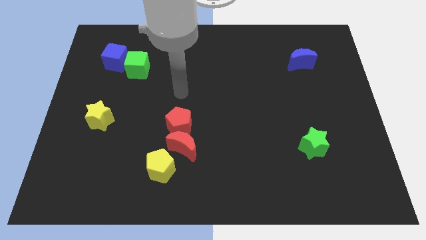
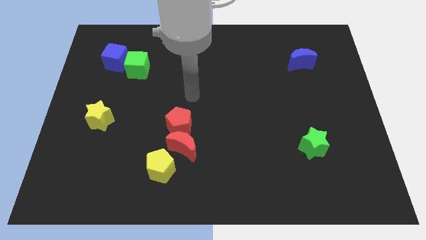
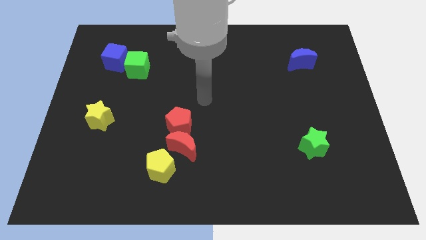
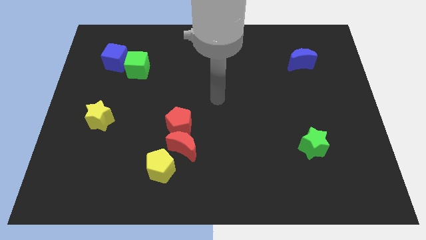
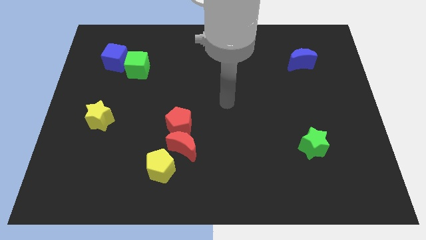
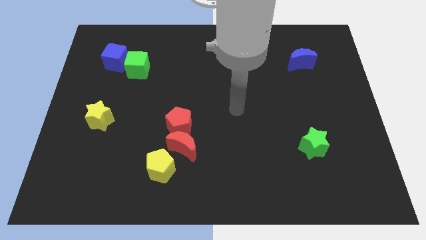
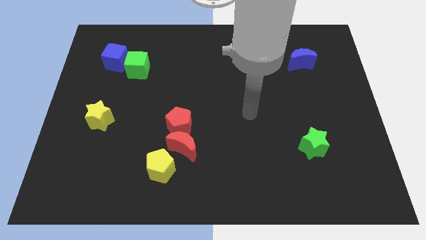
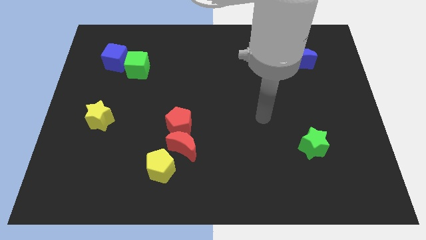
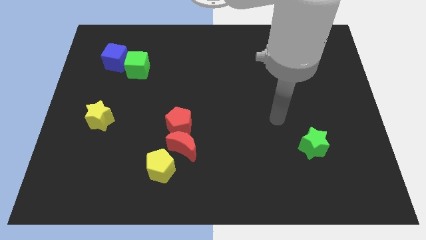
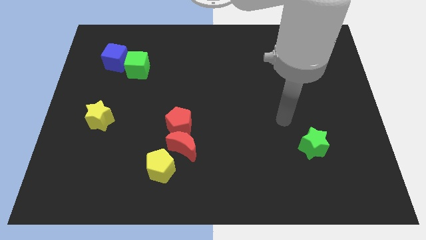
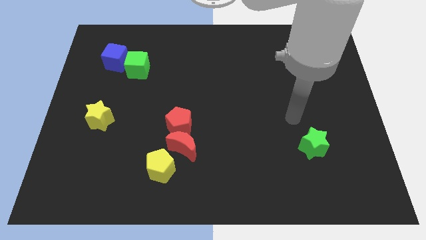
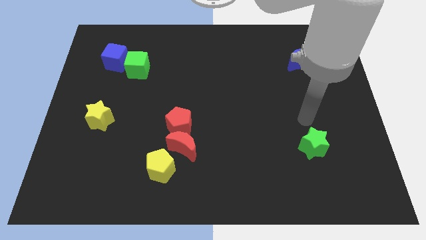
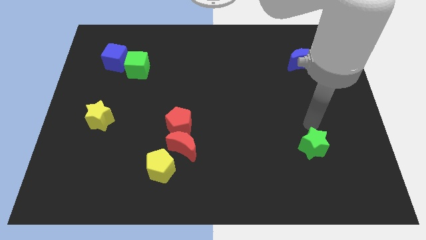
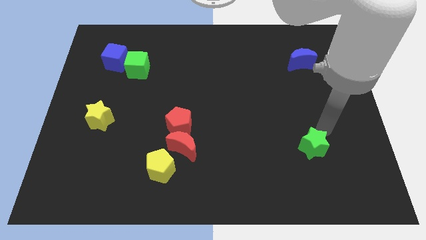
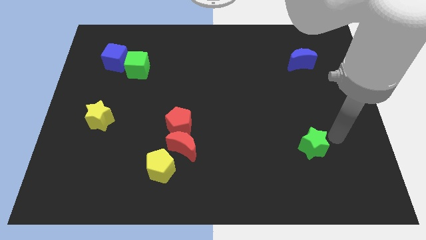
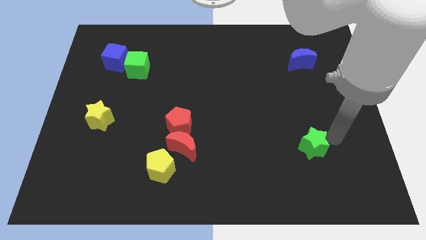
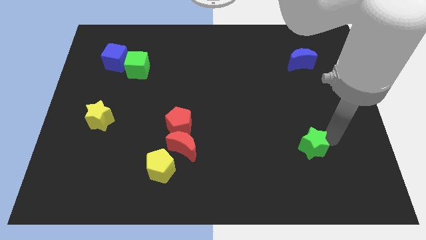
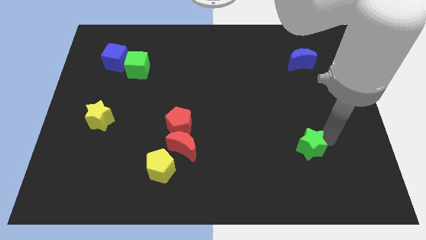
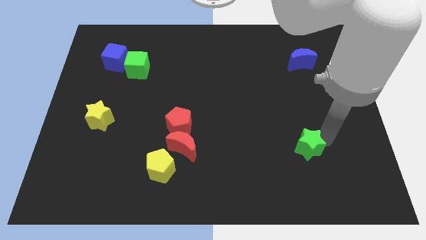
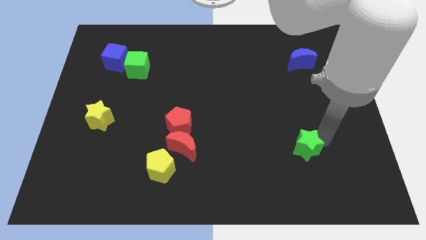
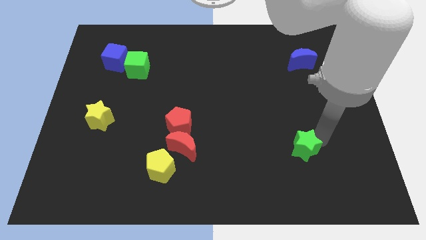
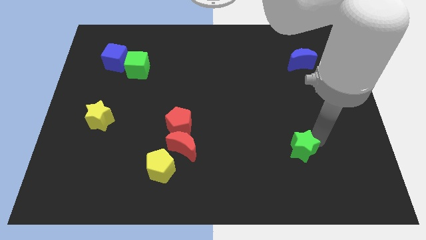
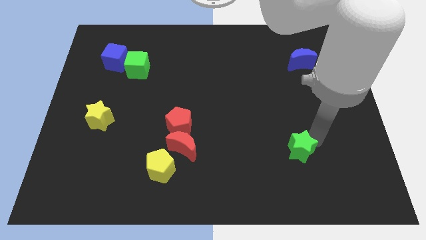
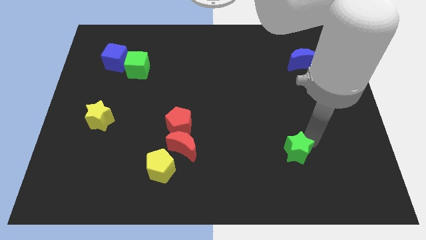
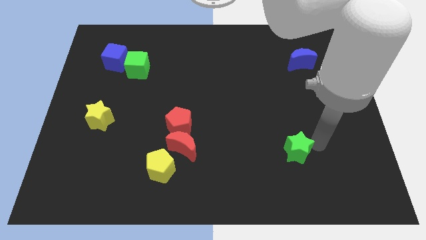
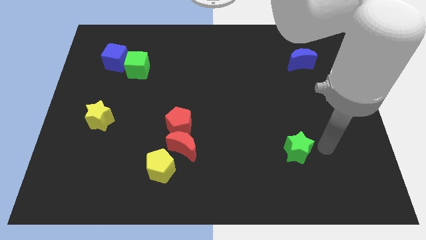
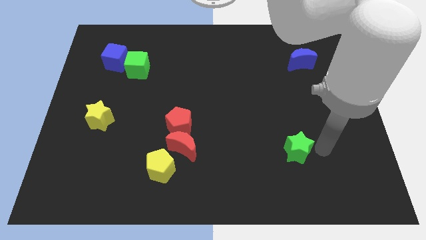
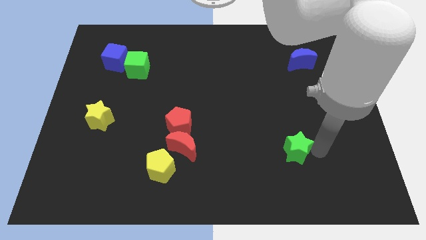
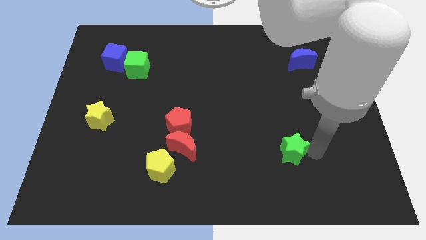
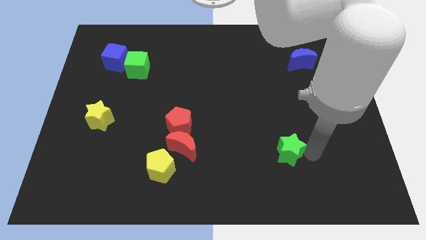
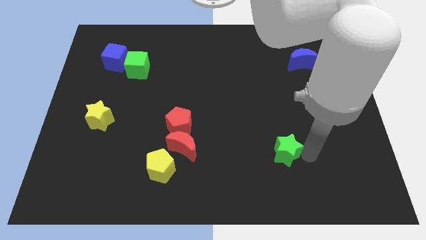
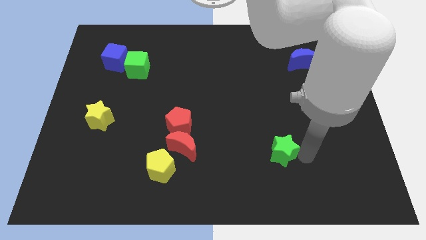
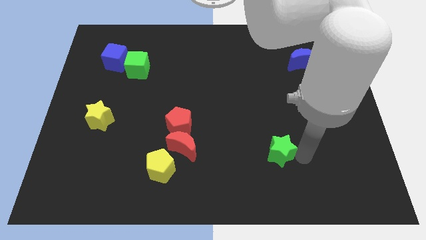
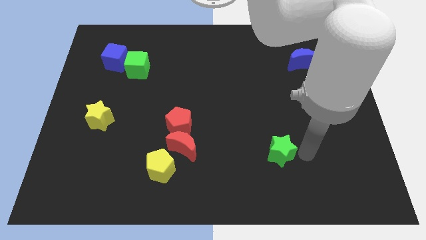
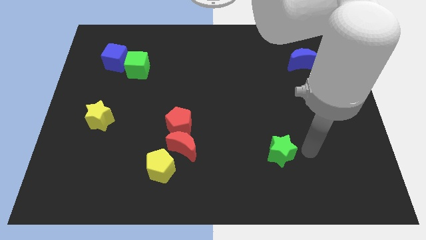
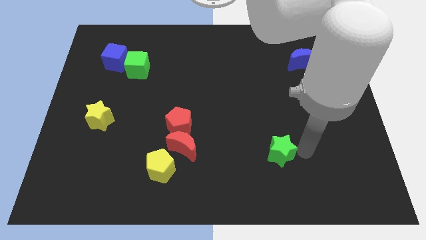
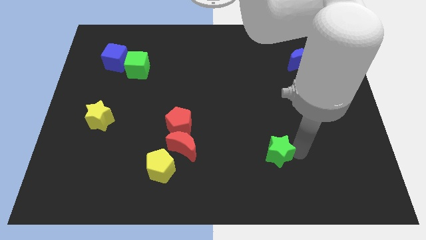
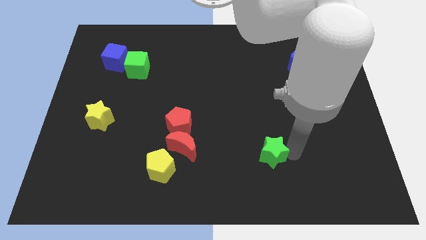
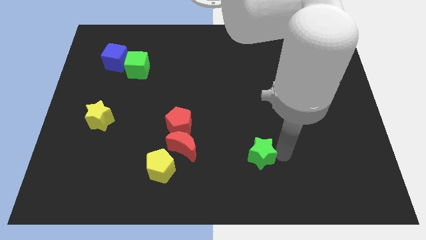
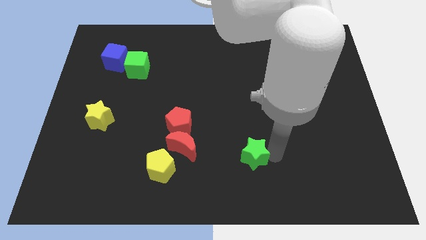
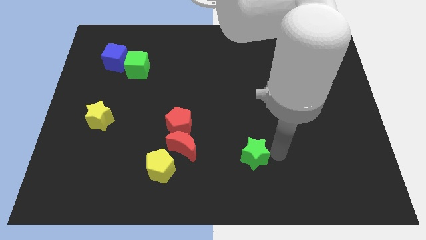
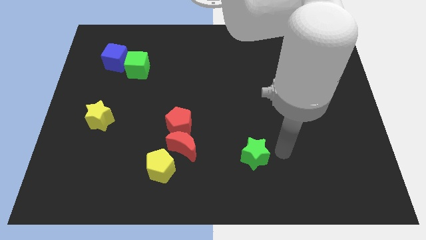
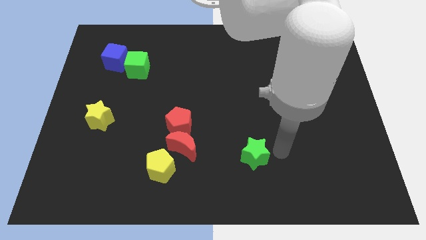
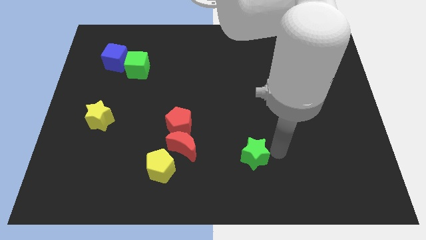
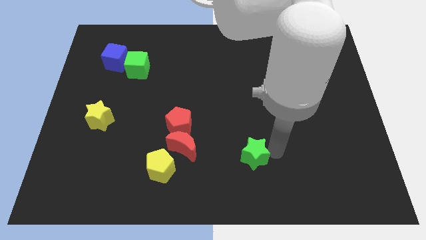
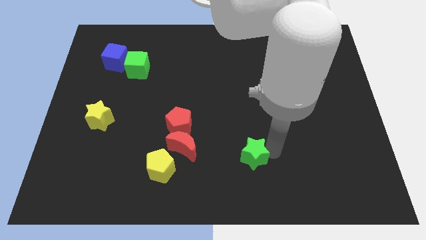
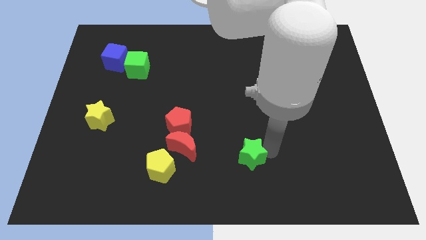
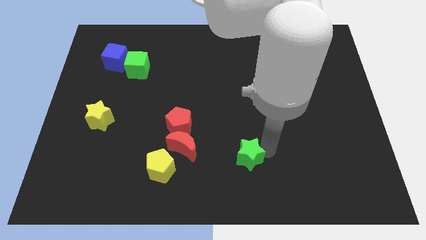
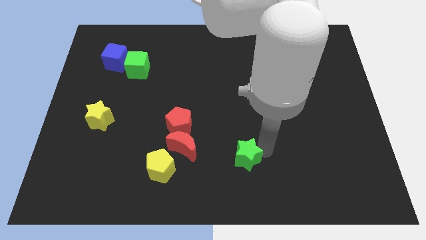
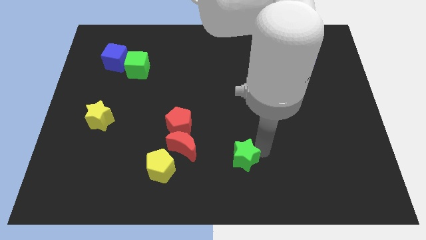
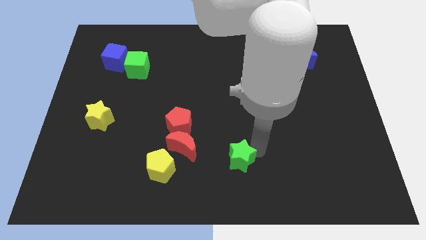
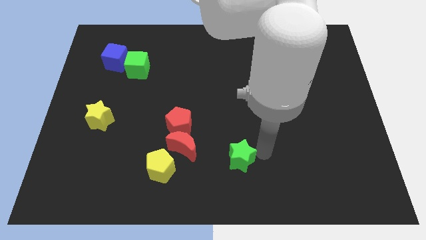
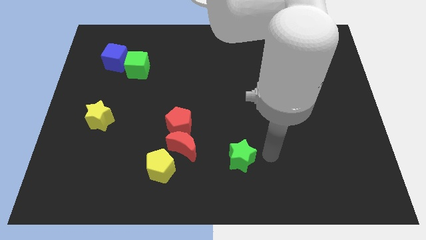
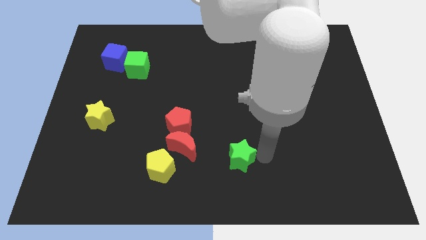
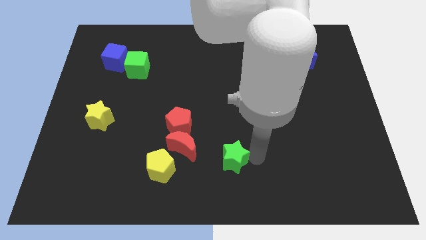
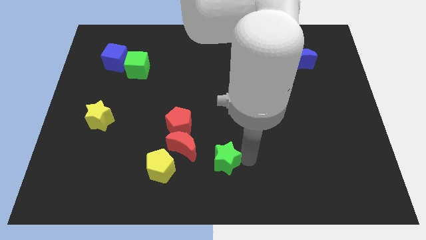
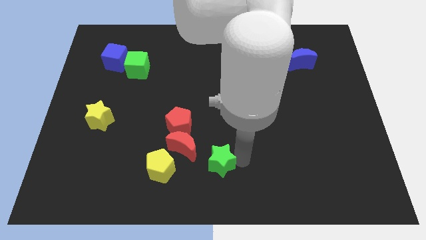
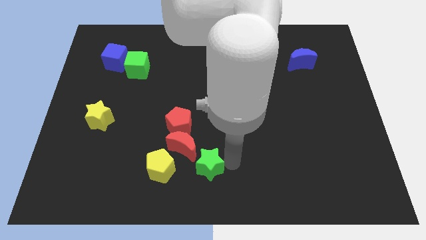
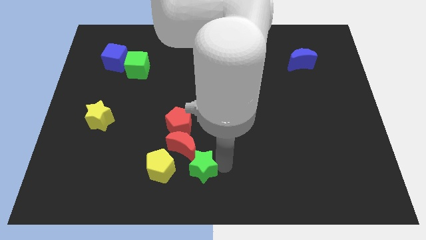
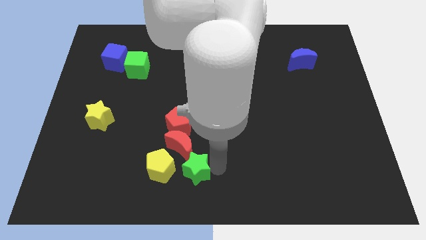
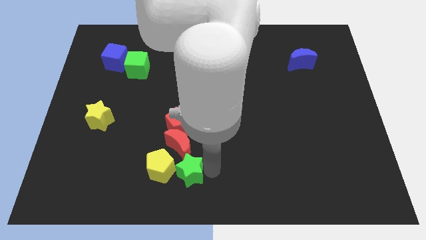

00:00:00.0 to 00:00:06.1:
put the green star towards the yellow pentagon

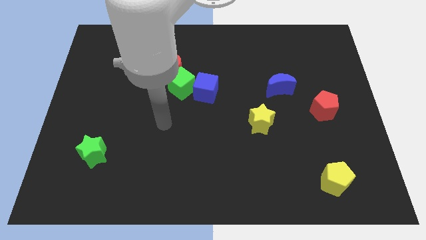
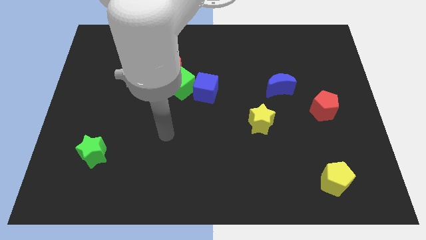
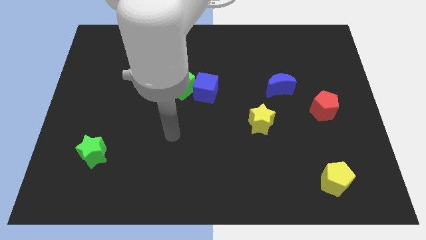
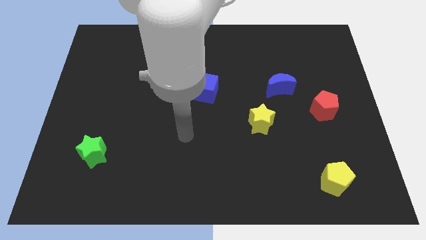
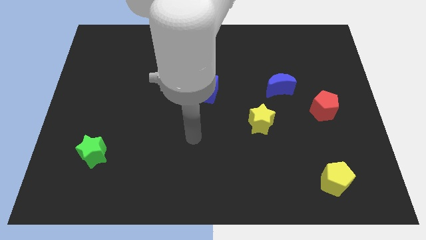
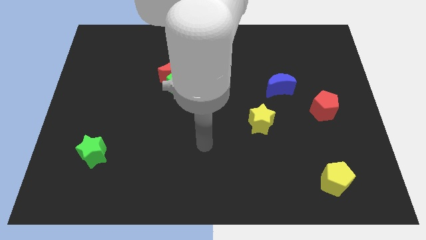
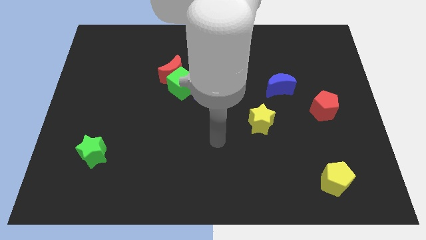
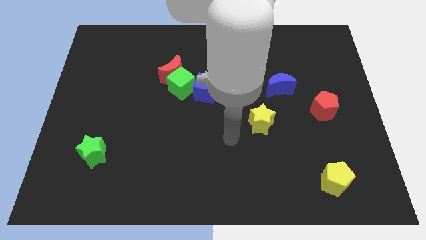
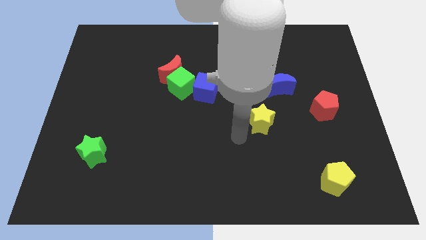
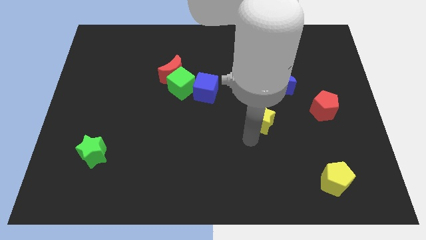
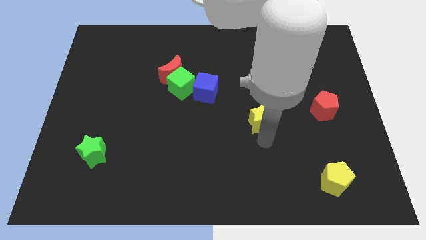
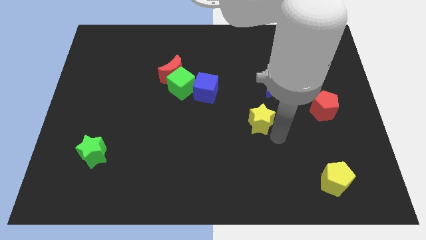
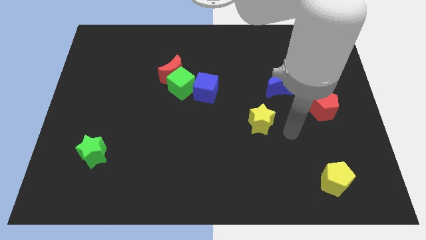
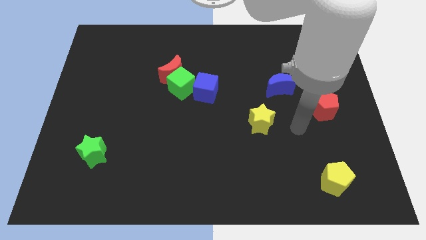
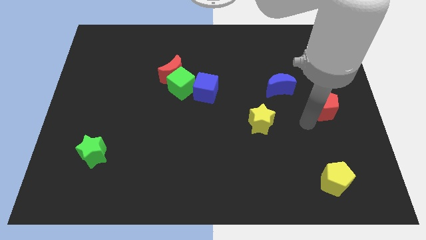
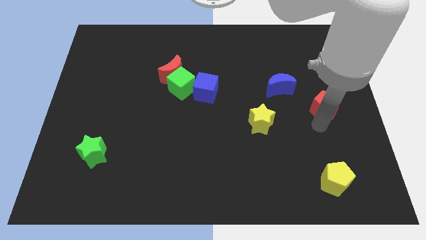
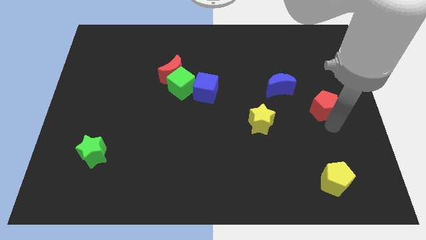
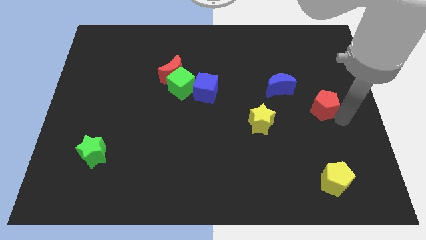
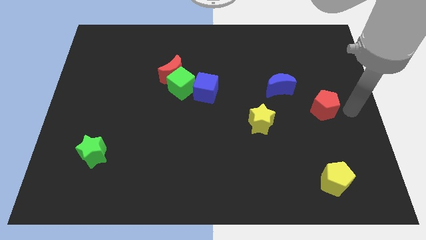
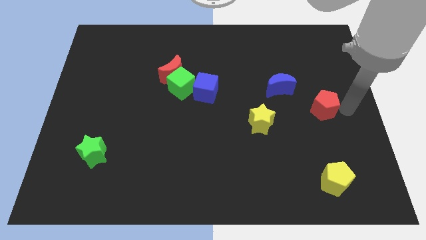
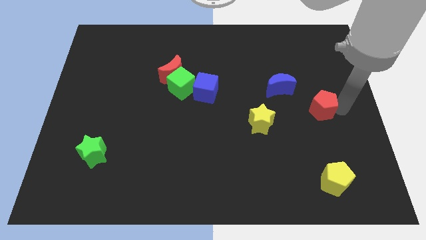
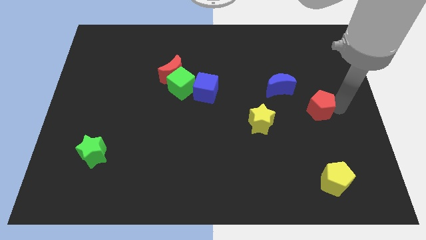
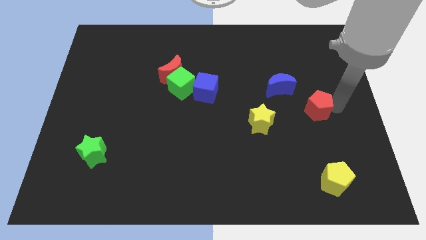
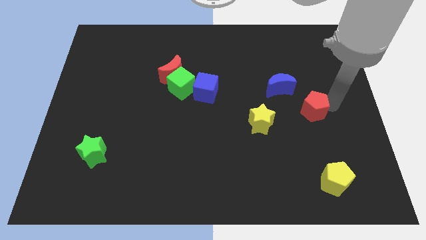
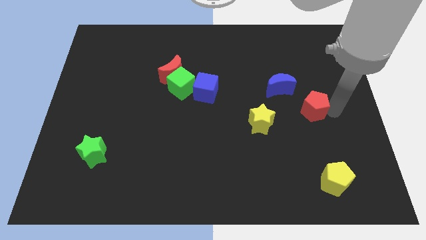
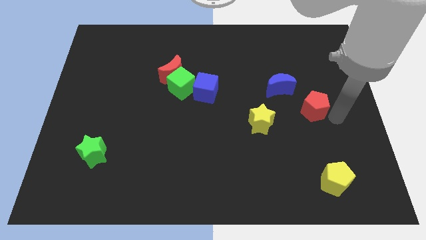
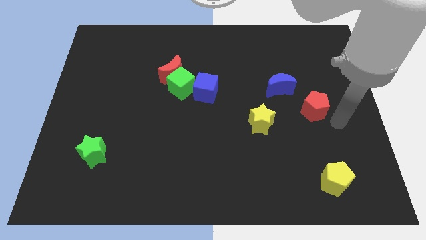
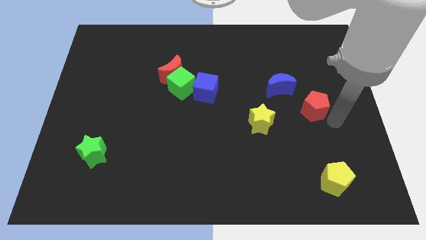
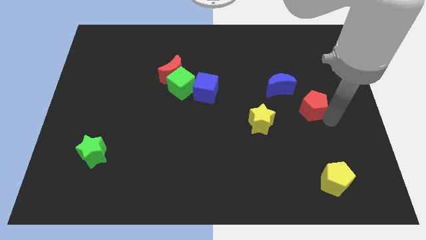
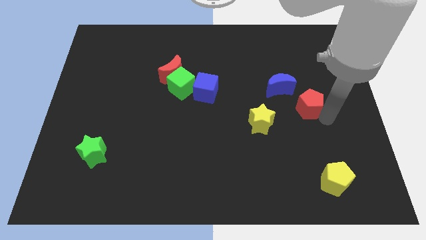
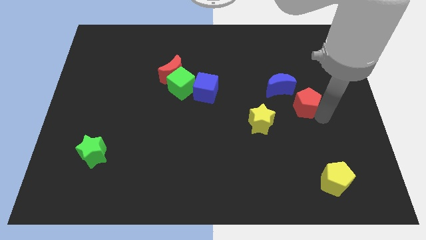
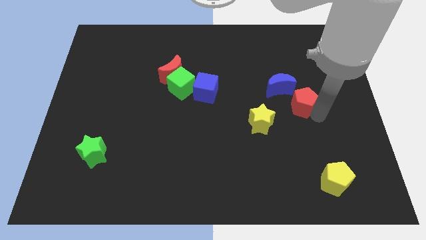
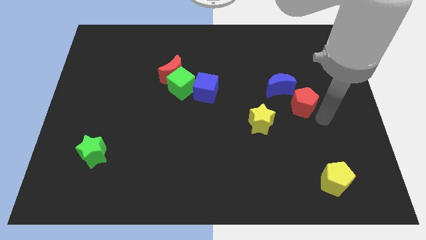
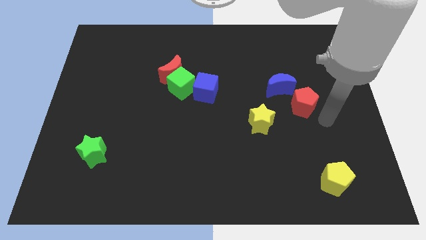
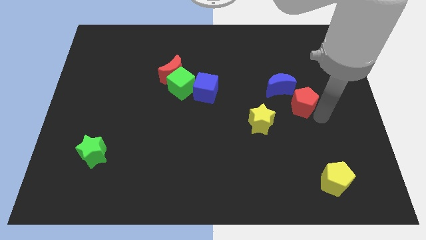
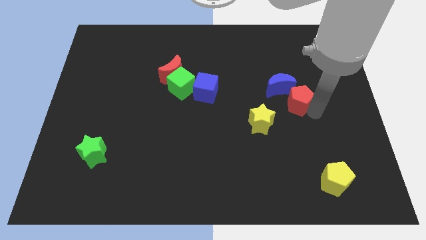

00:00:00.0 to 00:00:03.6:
put the red pentagon next to the blue moon
